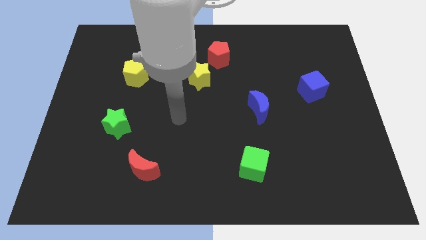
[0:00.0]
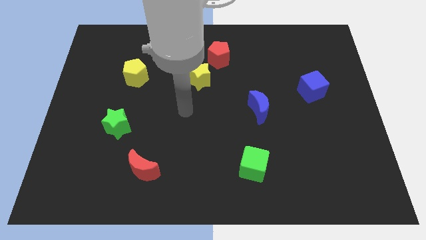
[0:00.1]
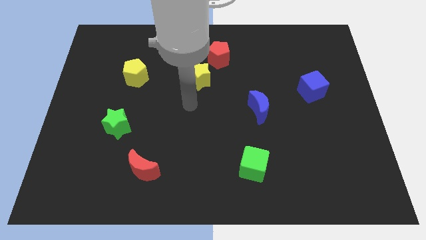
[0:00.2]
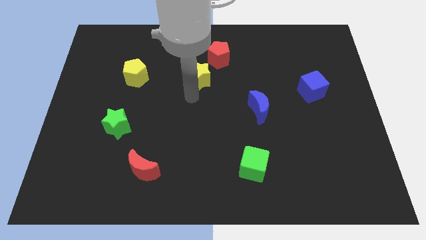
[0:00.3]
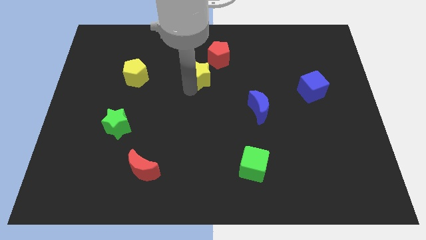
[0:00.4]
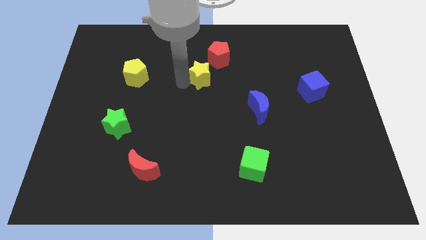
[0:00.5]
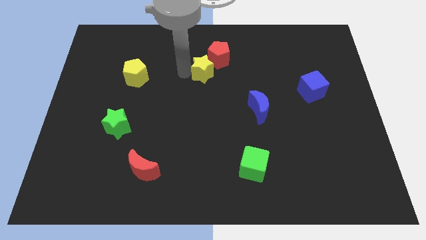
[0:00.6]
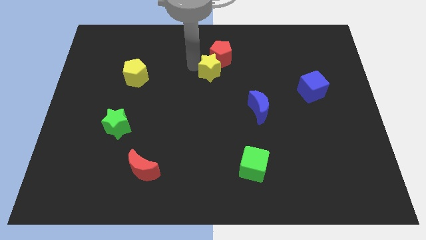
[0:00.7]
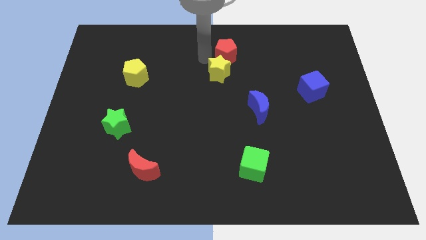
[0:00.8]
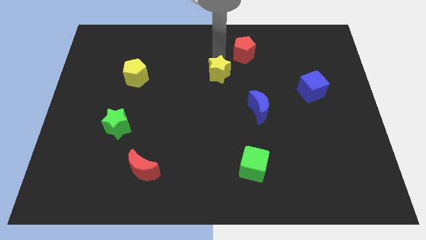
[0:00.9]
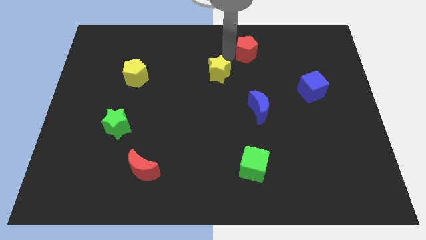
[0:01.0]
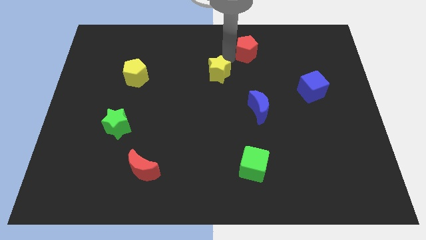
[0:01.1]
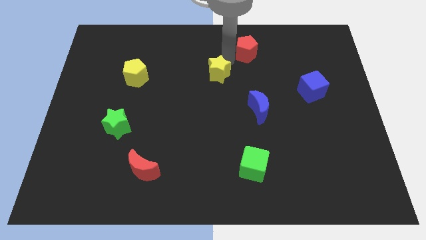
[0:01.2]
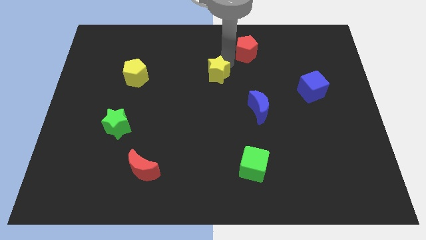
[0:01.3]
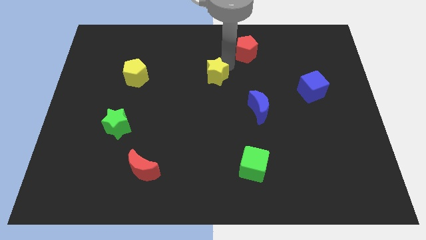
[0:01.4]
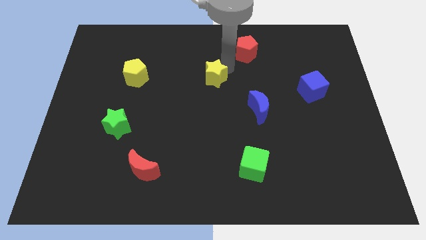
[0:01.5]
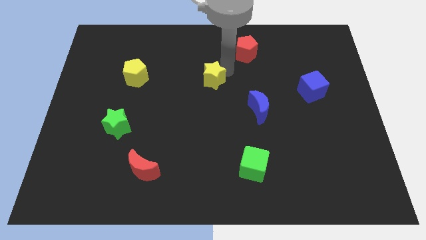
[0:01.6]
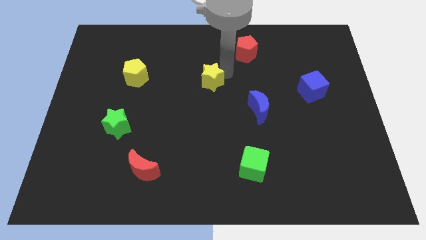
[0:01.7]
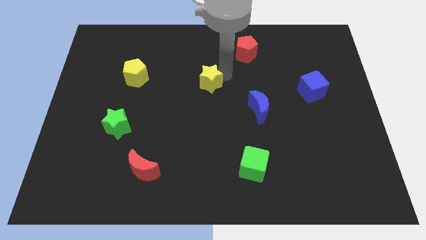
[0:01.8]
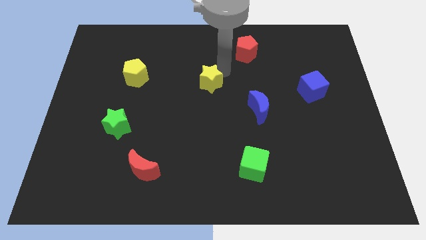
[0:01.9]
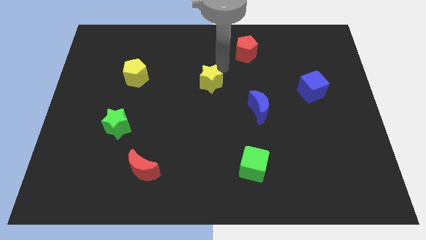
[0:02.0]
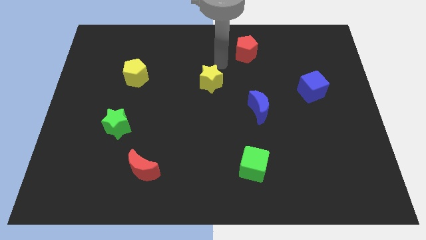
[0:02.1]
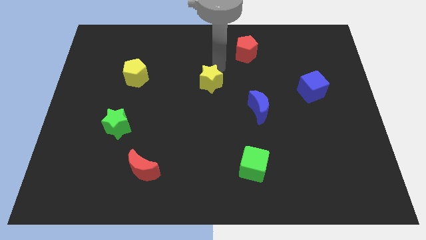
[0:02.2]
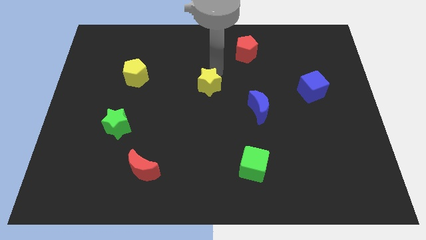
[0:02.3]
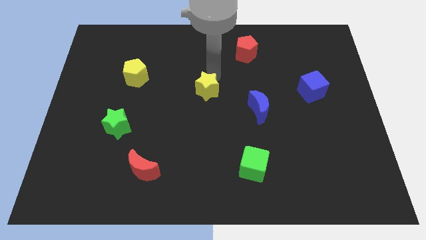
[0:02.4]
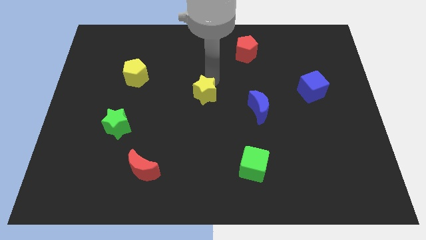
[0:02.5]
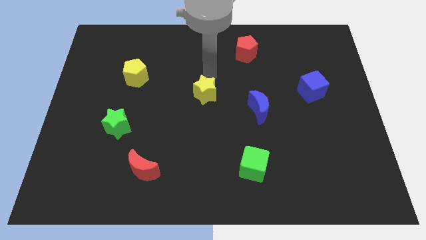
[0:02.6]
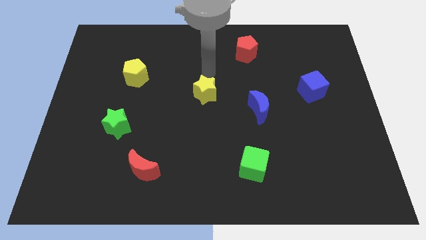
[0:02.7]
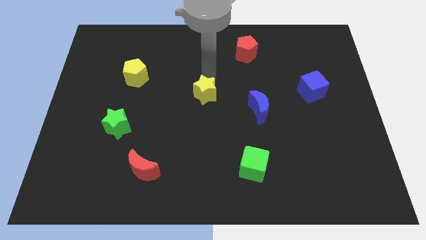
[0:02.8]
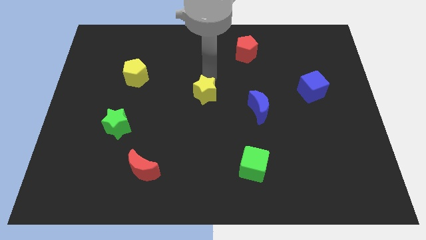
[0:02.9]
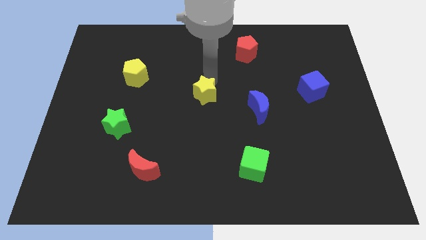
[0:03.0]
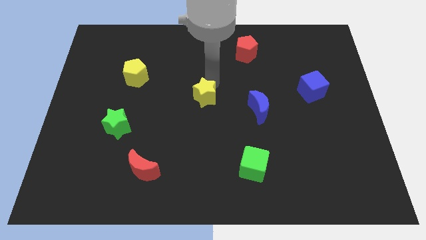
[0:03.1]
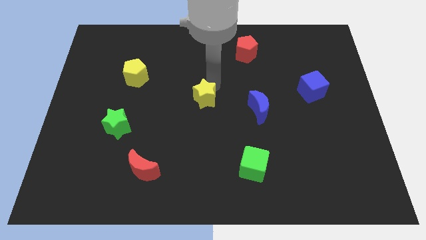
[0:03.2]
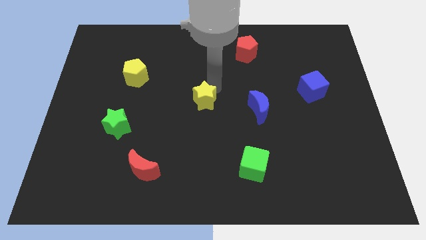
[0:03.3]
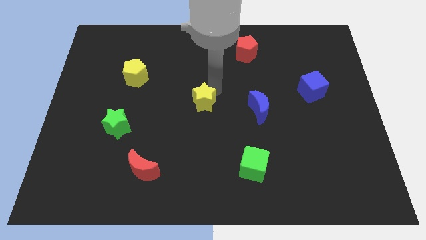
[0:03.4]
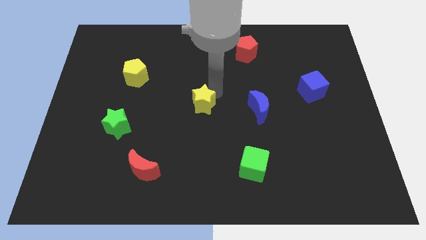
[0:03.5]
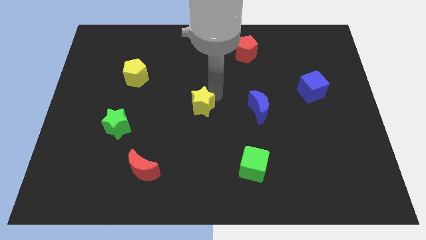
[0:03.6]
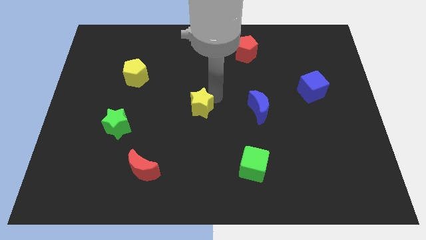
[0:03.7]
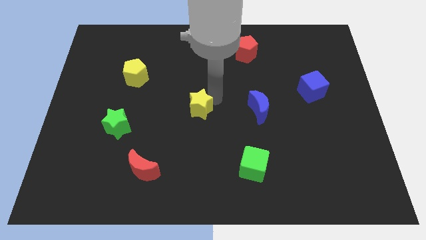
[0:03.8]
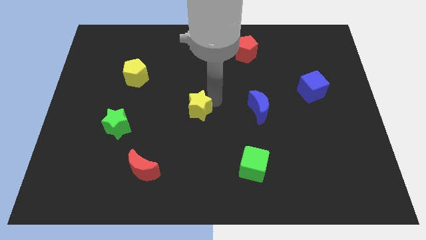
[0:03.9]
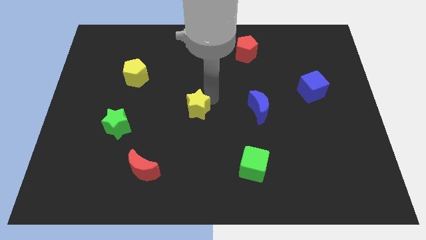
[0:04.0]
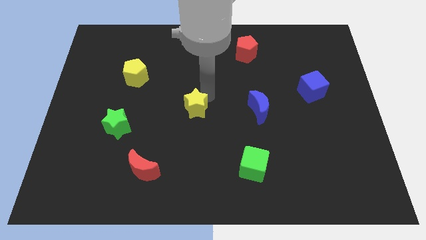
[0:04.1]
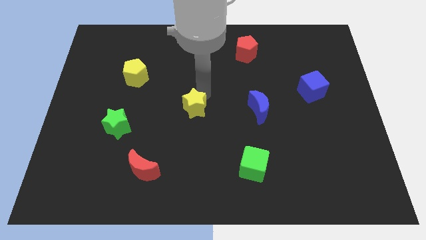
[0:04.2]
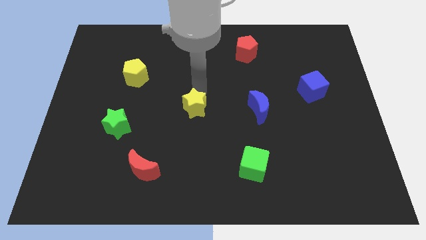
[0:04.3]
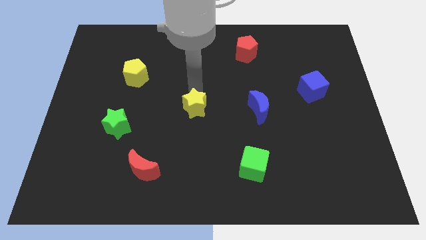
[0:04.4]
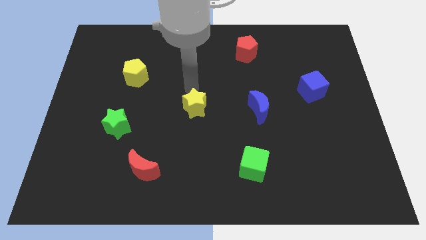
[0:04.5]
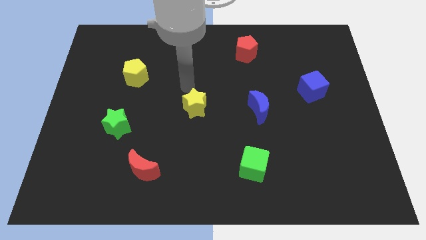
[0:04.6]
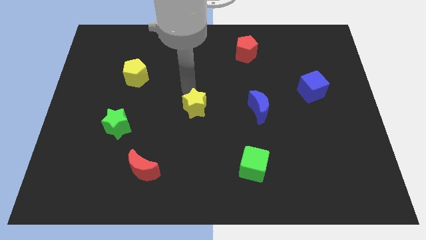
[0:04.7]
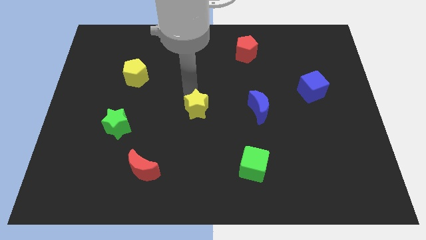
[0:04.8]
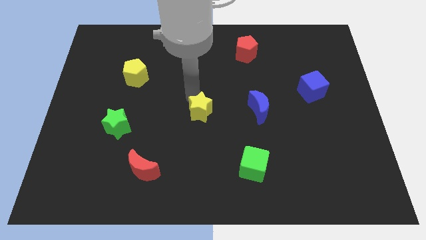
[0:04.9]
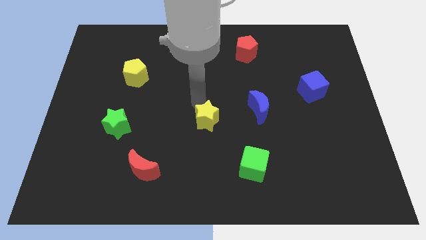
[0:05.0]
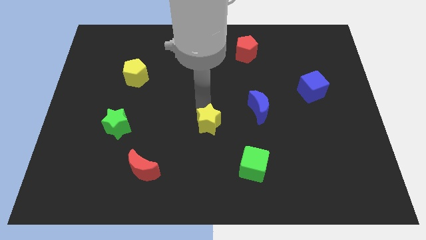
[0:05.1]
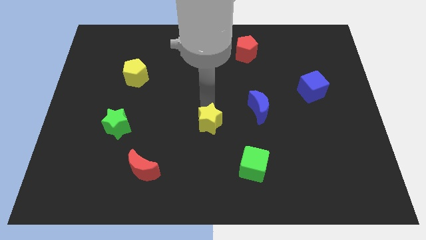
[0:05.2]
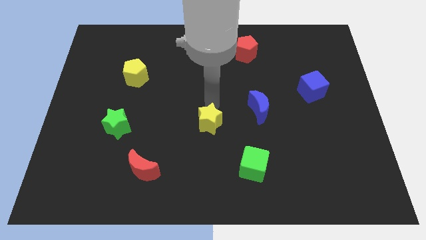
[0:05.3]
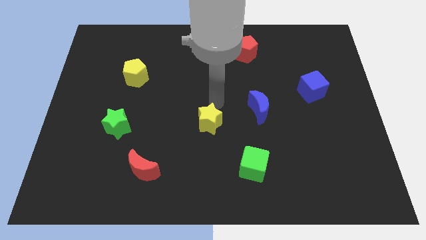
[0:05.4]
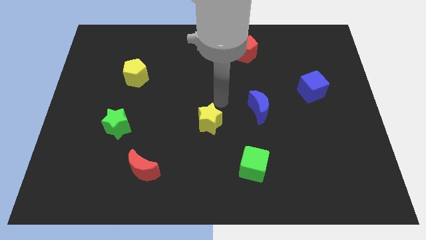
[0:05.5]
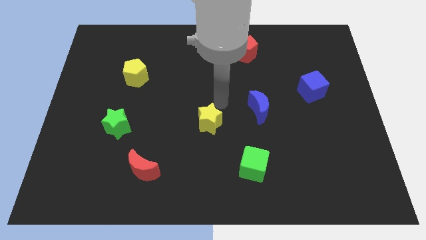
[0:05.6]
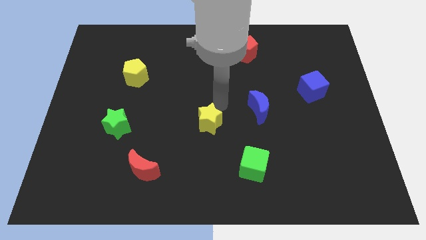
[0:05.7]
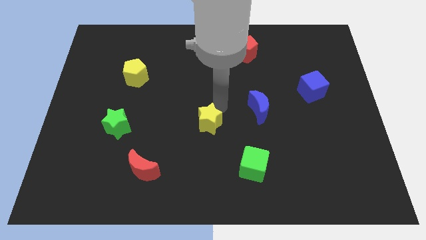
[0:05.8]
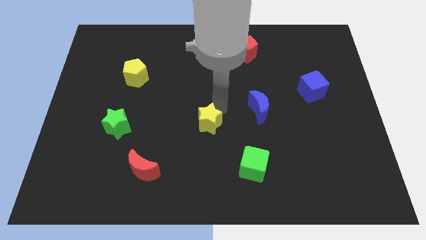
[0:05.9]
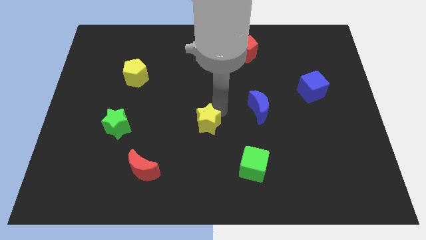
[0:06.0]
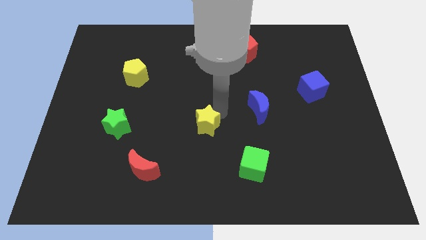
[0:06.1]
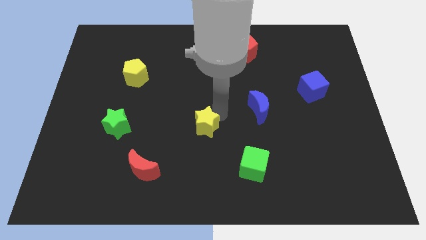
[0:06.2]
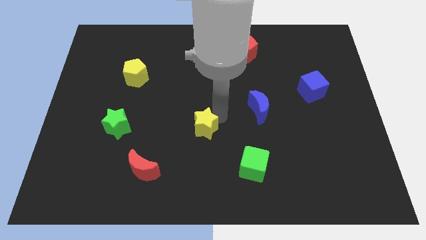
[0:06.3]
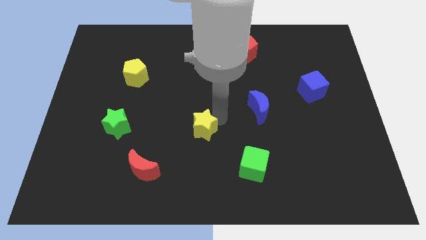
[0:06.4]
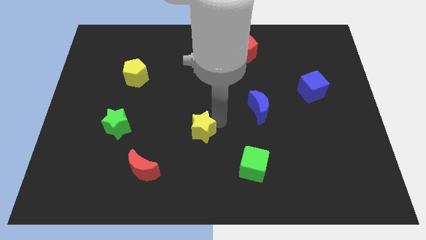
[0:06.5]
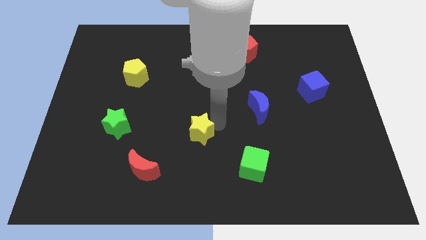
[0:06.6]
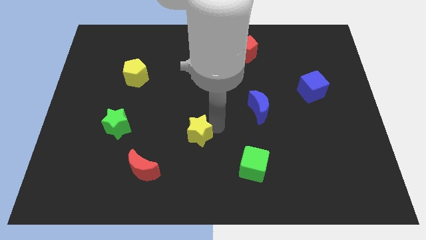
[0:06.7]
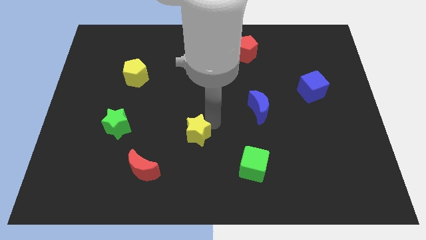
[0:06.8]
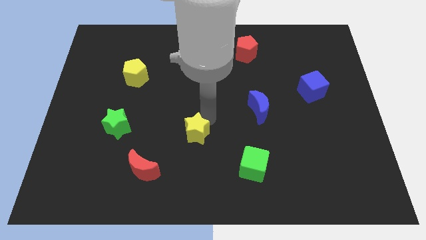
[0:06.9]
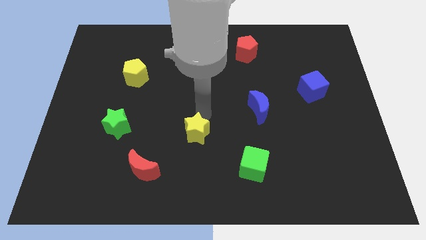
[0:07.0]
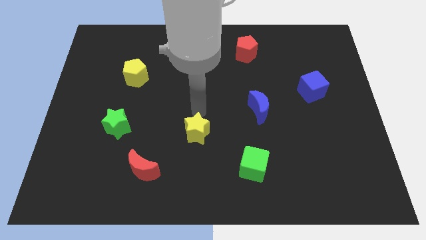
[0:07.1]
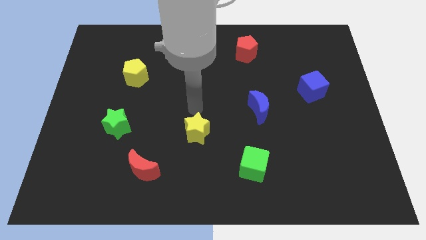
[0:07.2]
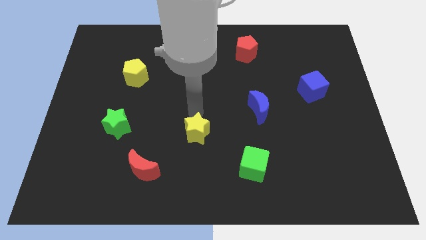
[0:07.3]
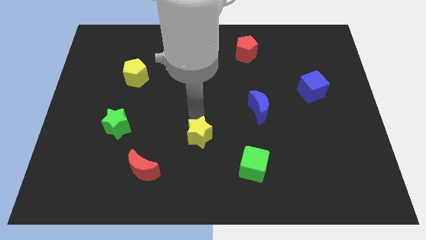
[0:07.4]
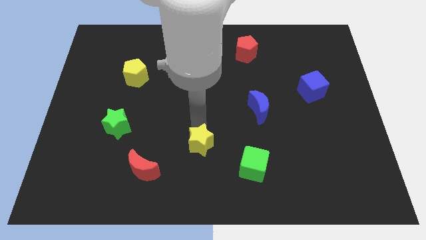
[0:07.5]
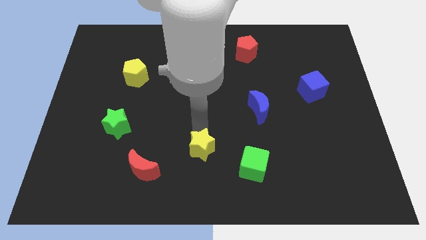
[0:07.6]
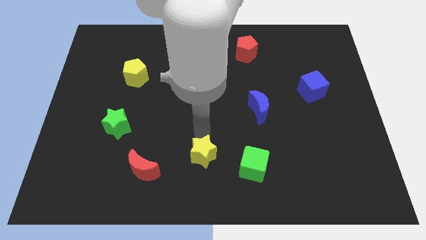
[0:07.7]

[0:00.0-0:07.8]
move the yellow star to the bottom side
